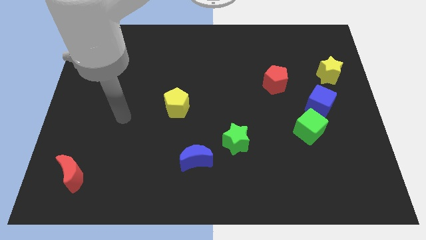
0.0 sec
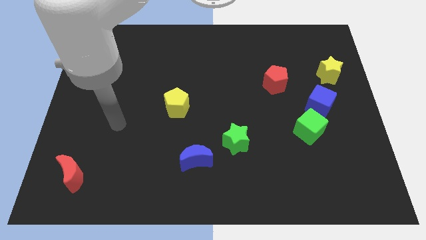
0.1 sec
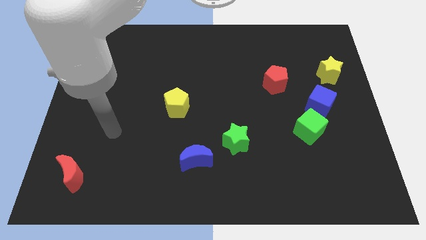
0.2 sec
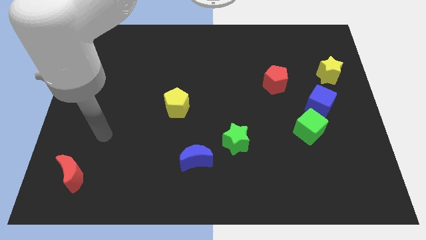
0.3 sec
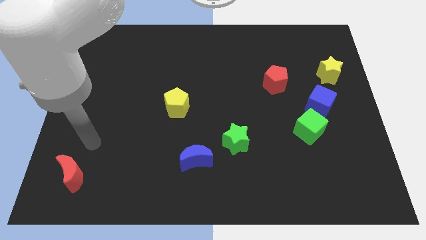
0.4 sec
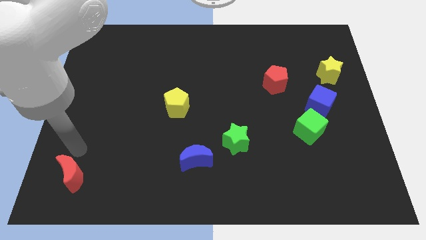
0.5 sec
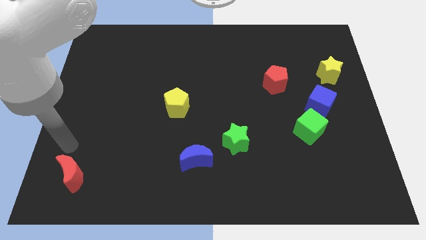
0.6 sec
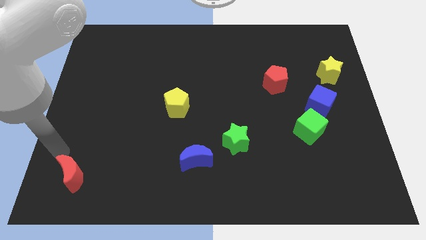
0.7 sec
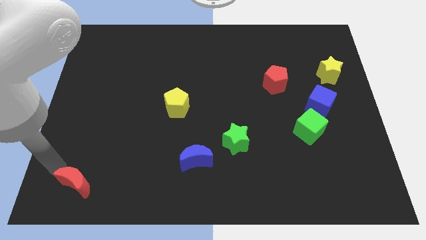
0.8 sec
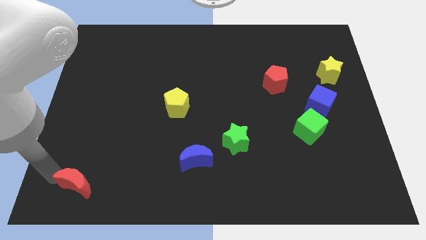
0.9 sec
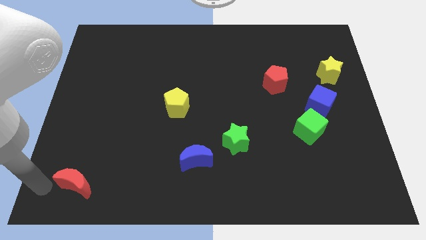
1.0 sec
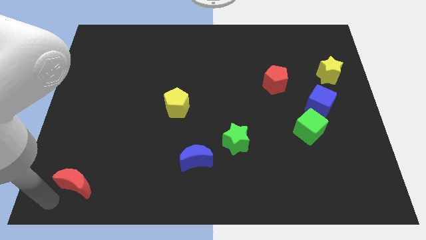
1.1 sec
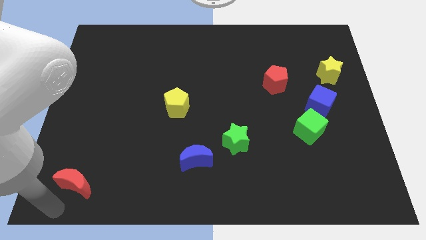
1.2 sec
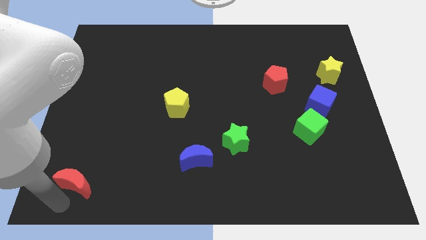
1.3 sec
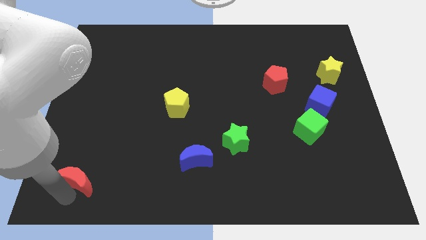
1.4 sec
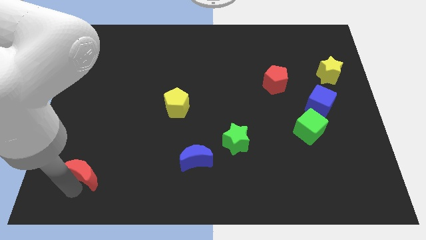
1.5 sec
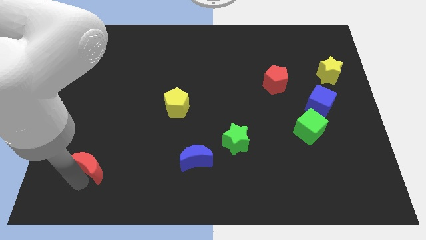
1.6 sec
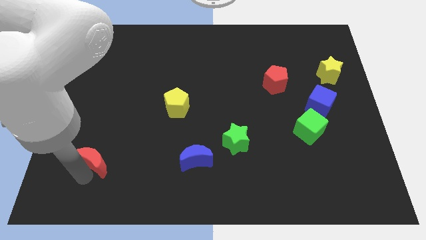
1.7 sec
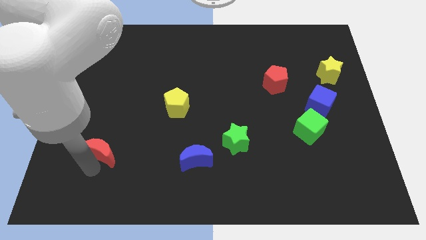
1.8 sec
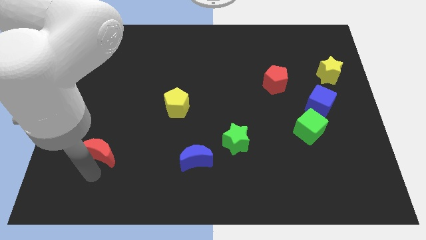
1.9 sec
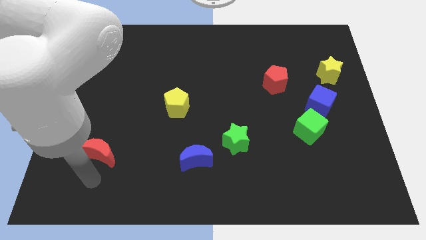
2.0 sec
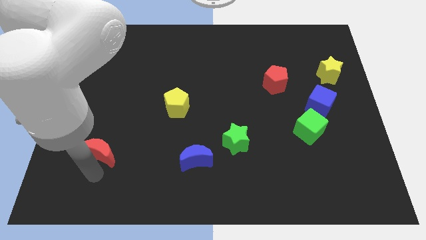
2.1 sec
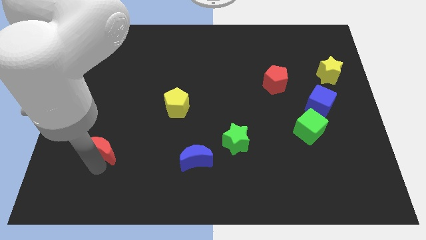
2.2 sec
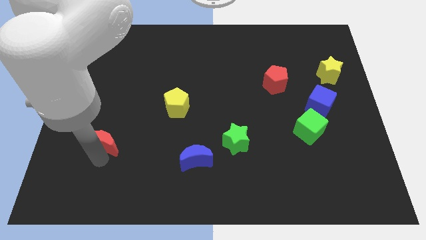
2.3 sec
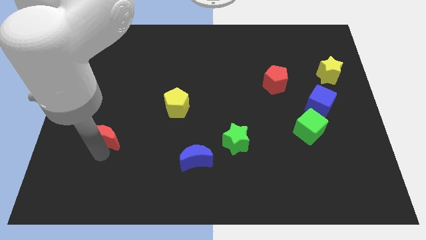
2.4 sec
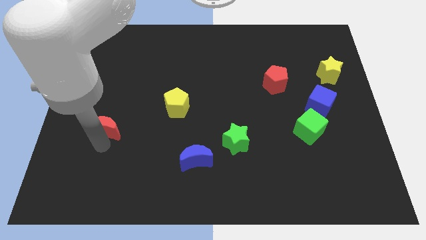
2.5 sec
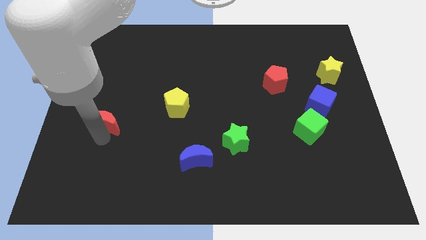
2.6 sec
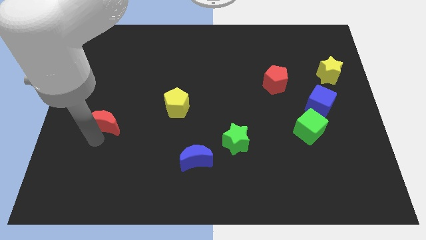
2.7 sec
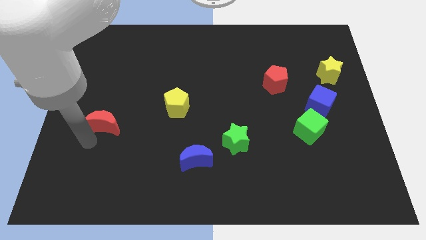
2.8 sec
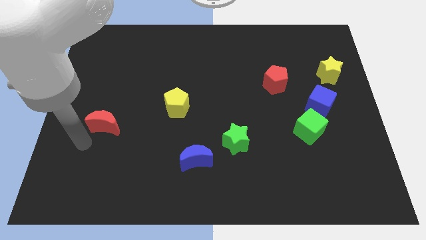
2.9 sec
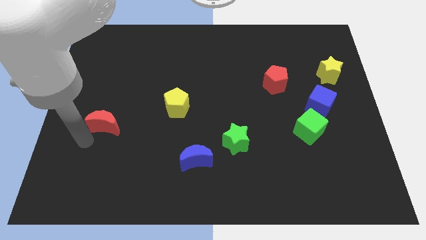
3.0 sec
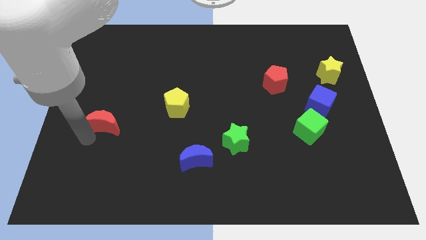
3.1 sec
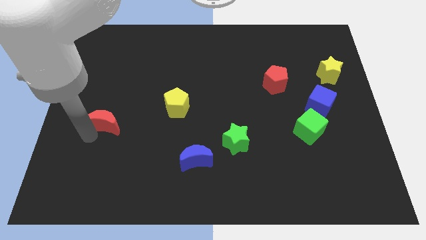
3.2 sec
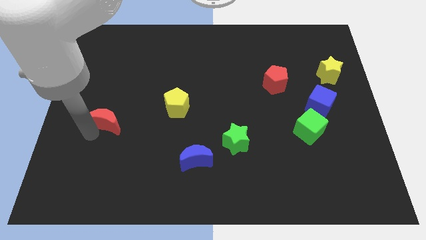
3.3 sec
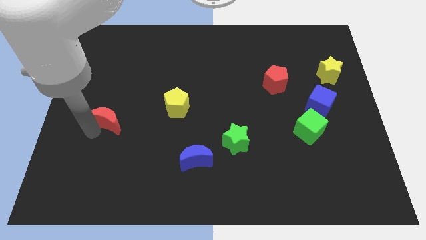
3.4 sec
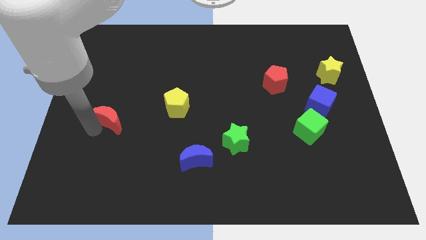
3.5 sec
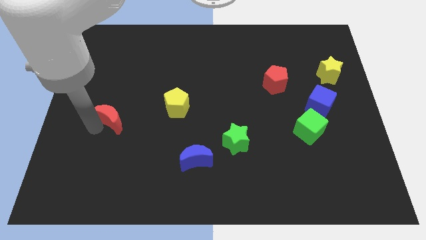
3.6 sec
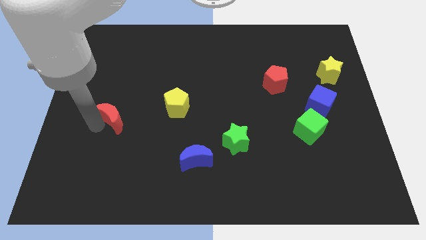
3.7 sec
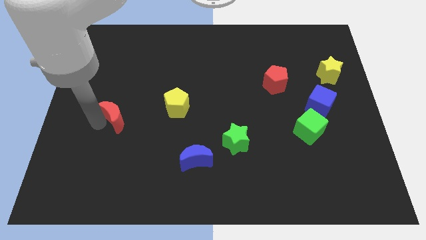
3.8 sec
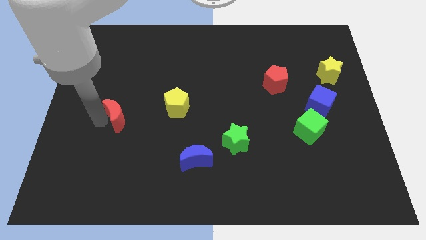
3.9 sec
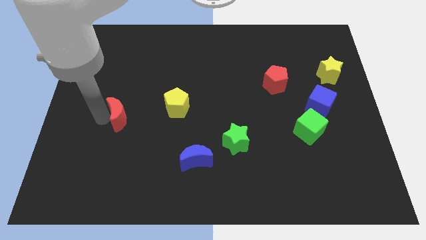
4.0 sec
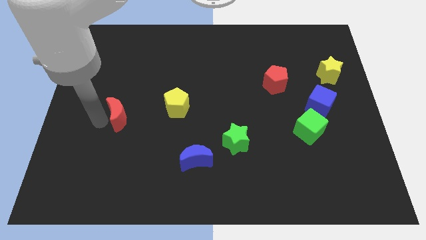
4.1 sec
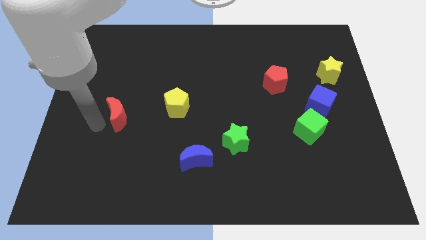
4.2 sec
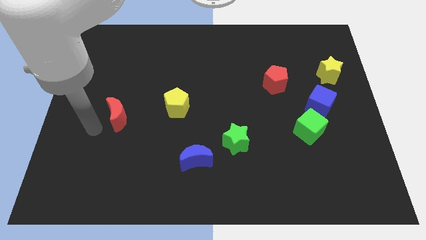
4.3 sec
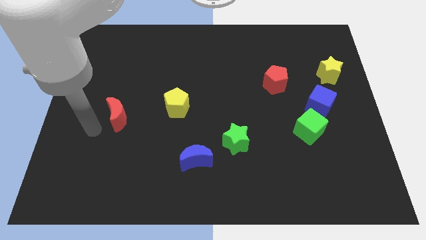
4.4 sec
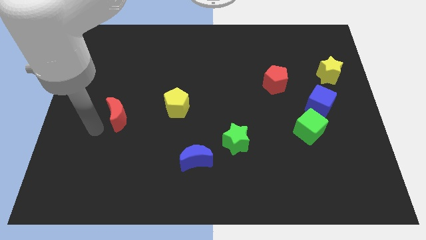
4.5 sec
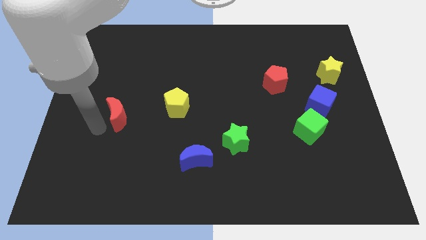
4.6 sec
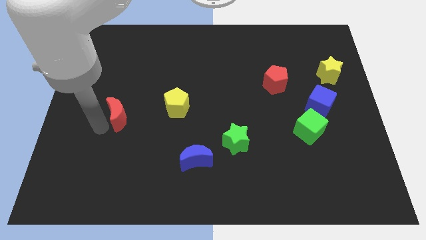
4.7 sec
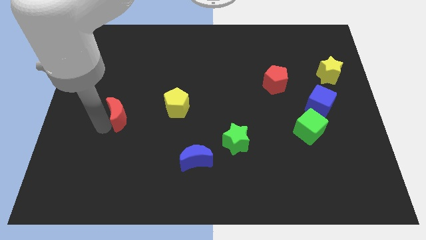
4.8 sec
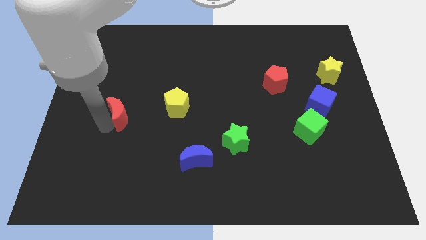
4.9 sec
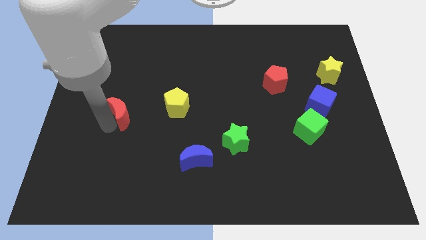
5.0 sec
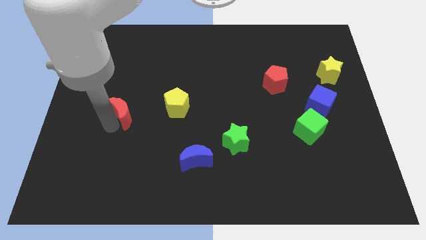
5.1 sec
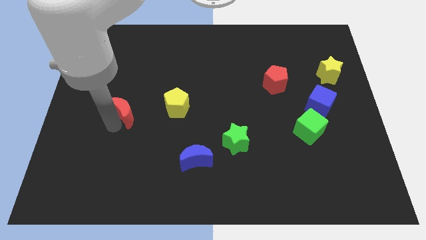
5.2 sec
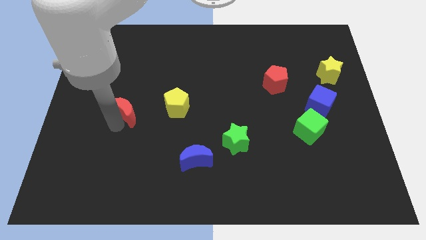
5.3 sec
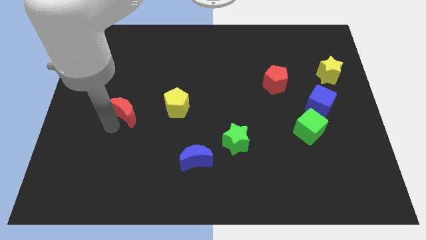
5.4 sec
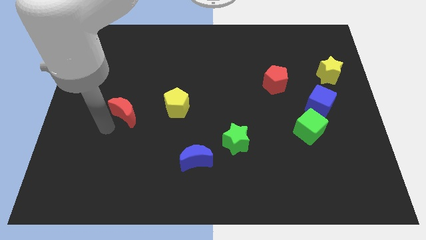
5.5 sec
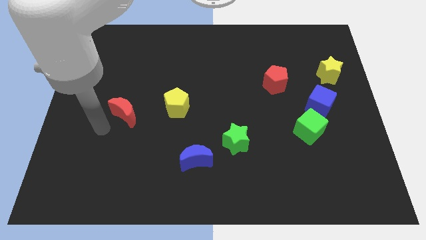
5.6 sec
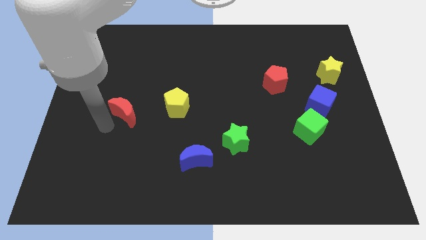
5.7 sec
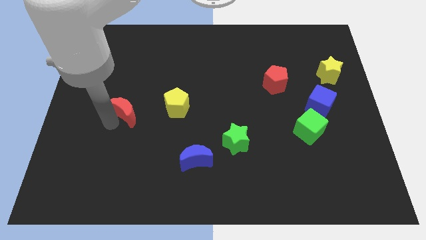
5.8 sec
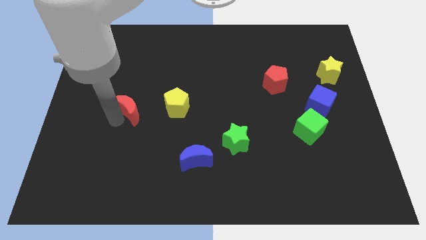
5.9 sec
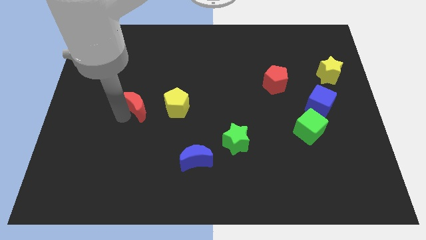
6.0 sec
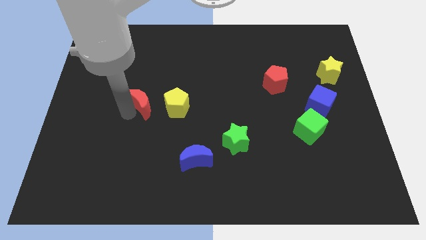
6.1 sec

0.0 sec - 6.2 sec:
move the red moon upwards and right

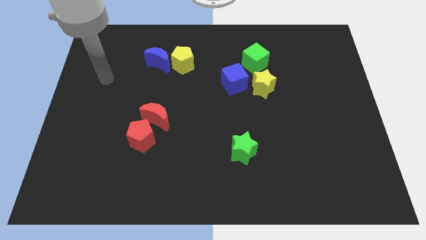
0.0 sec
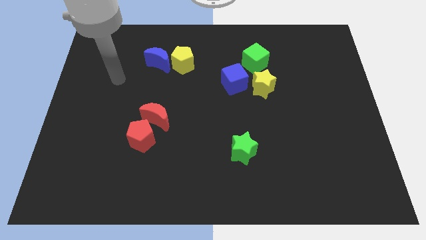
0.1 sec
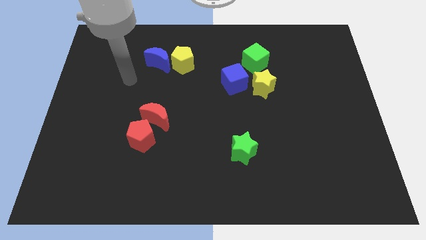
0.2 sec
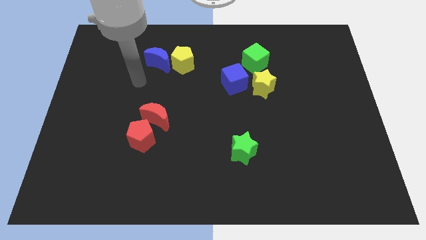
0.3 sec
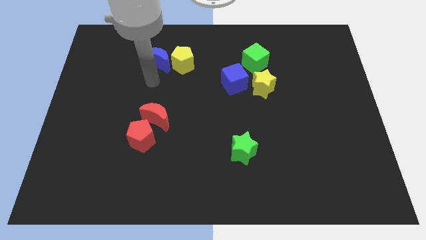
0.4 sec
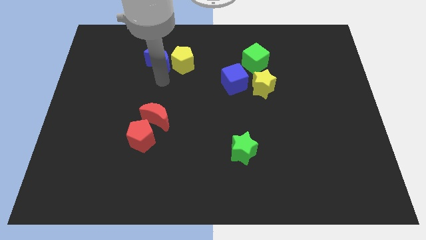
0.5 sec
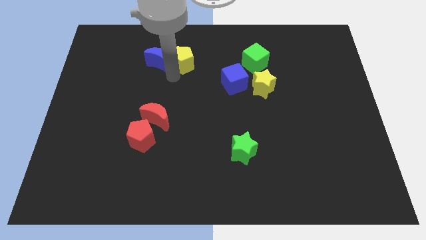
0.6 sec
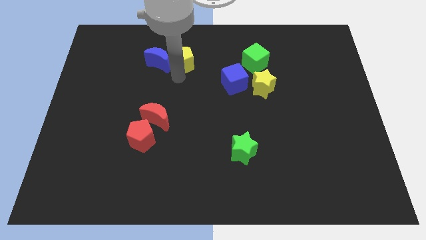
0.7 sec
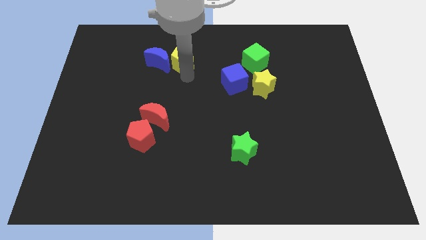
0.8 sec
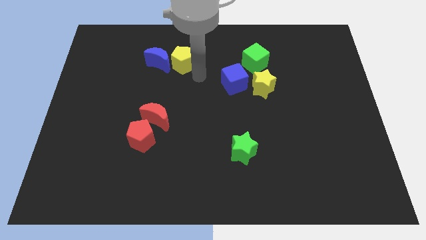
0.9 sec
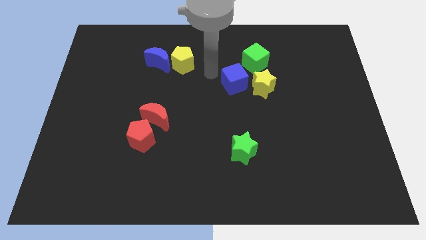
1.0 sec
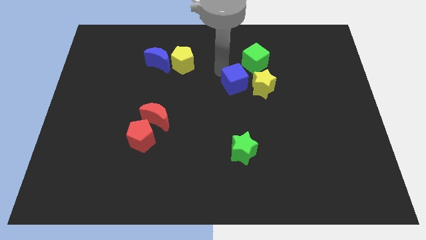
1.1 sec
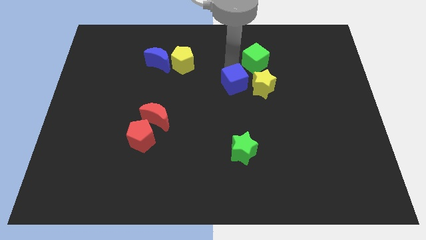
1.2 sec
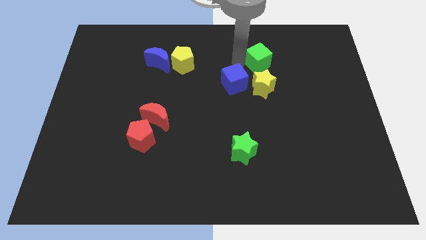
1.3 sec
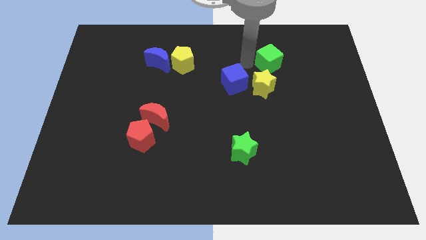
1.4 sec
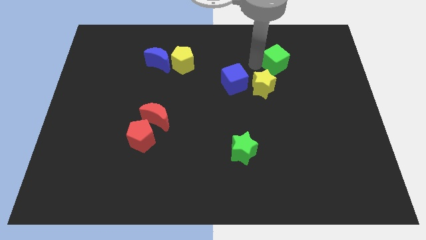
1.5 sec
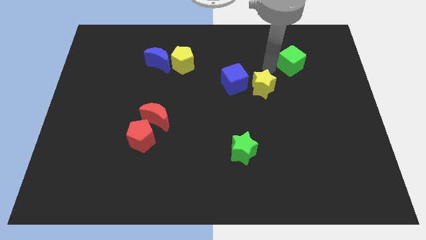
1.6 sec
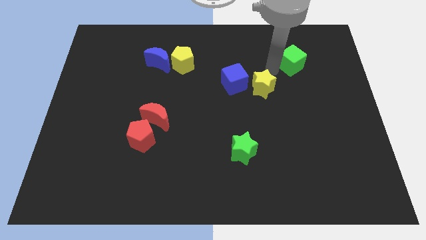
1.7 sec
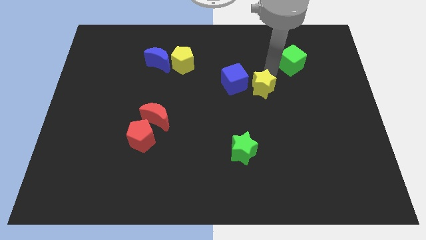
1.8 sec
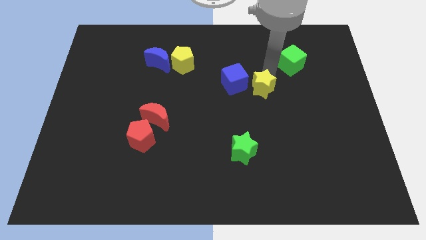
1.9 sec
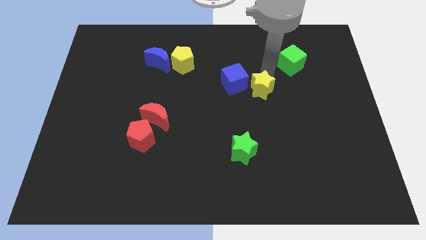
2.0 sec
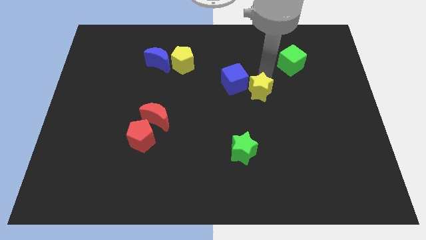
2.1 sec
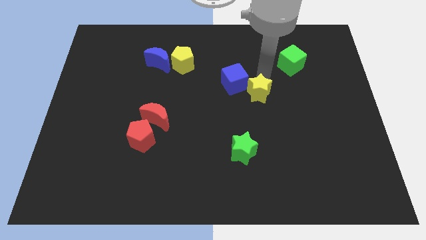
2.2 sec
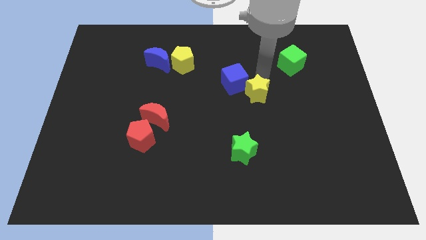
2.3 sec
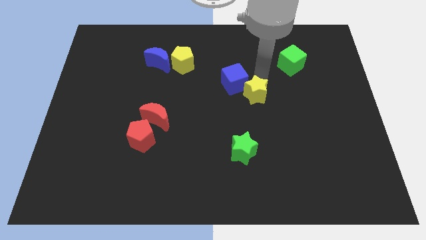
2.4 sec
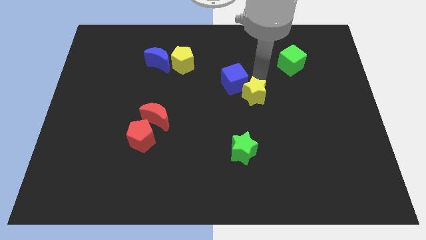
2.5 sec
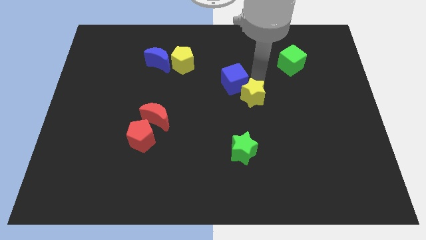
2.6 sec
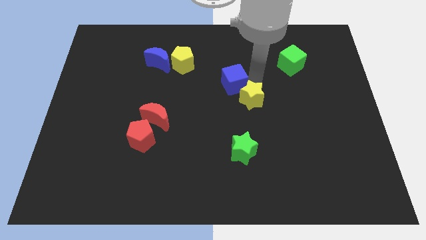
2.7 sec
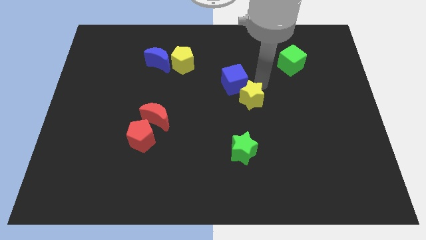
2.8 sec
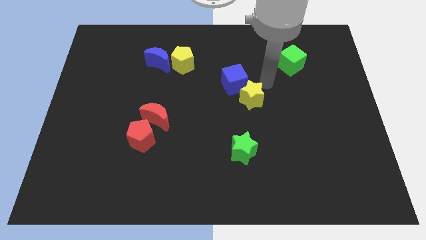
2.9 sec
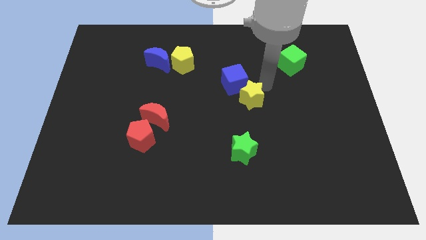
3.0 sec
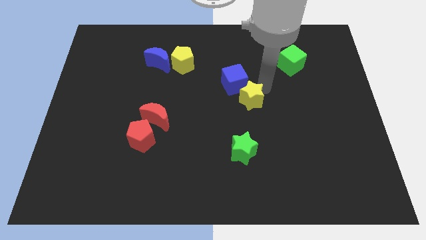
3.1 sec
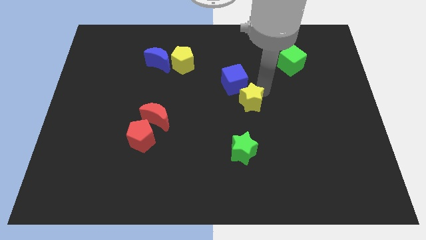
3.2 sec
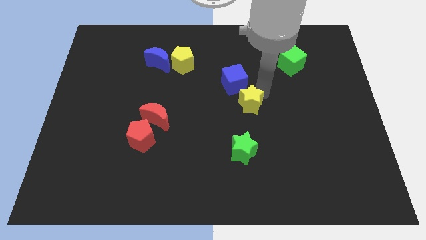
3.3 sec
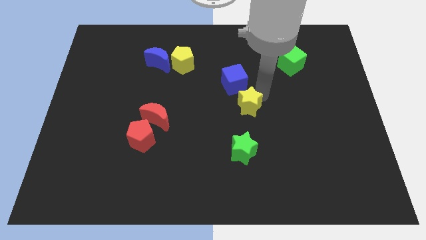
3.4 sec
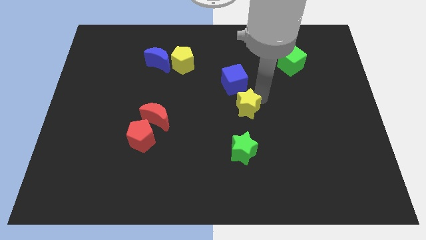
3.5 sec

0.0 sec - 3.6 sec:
push the yellow star a little downwards and left diagonally
